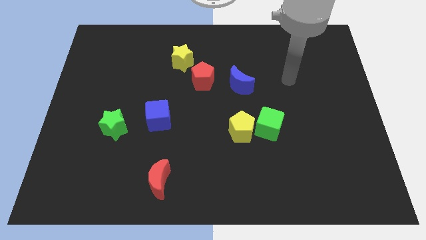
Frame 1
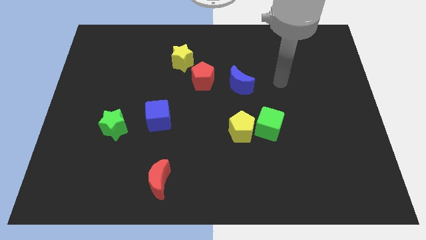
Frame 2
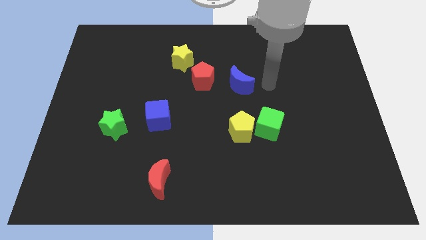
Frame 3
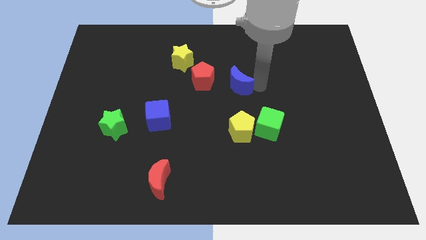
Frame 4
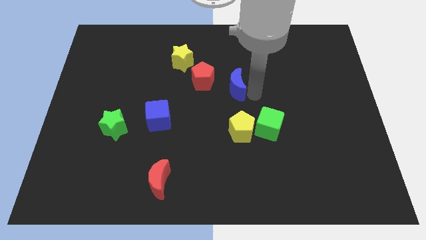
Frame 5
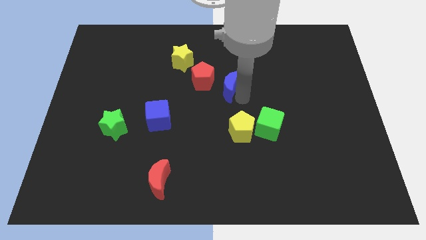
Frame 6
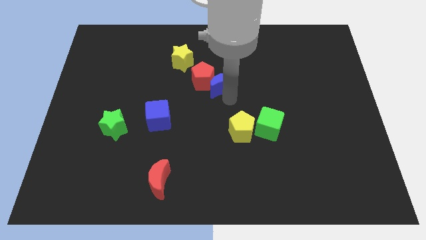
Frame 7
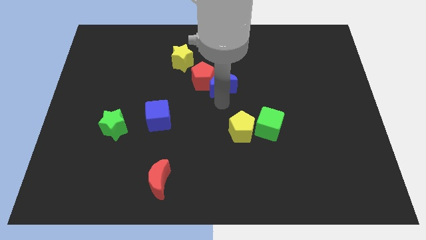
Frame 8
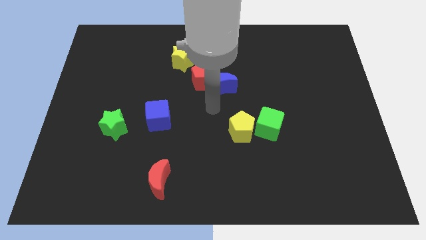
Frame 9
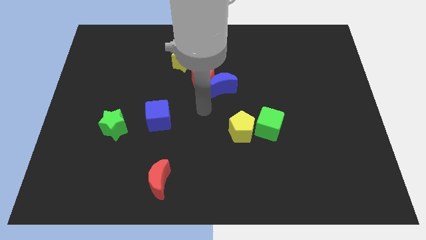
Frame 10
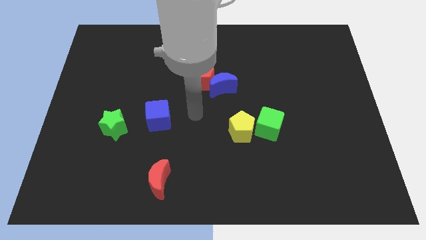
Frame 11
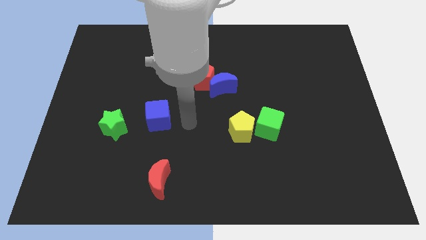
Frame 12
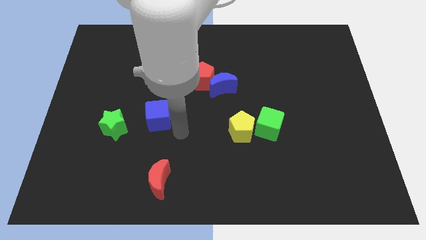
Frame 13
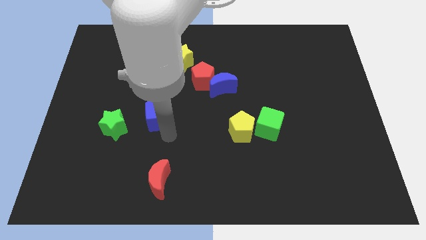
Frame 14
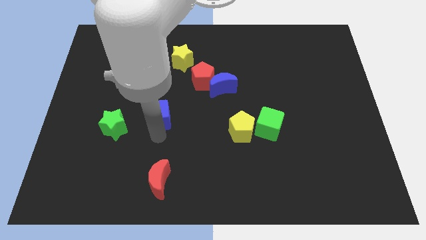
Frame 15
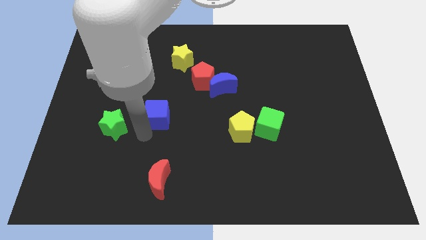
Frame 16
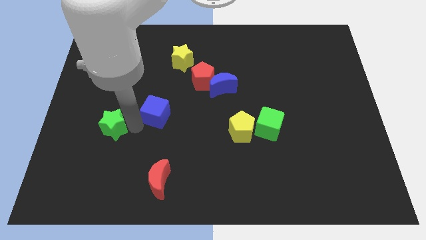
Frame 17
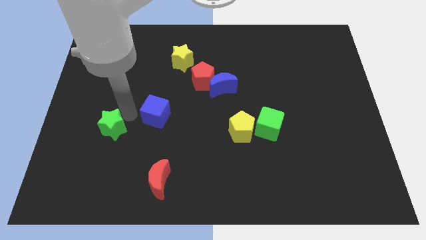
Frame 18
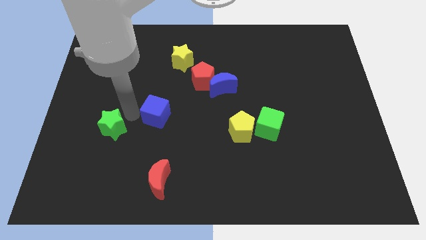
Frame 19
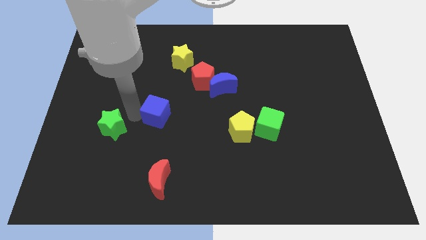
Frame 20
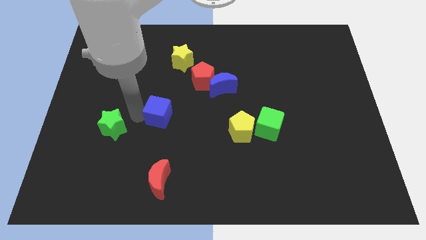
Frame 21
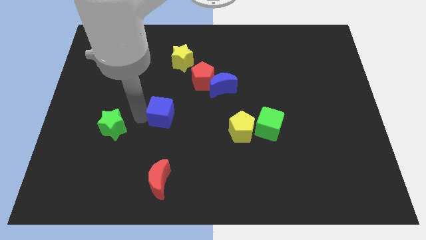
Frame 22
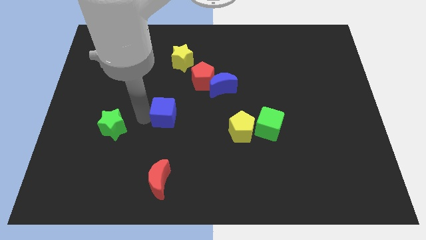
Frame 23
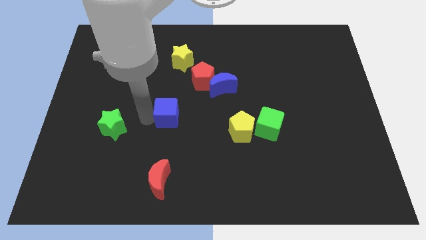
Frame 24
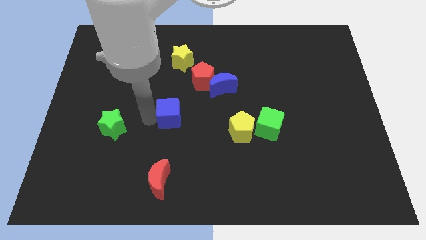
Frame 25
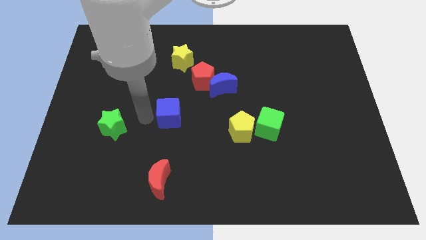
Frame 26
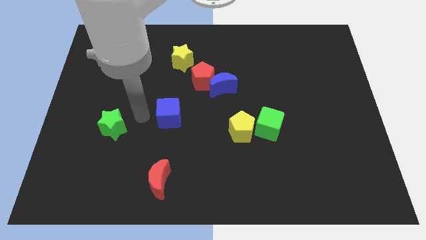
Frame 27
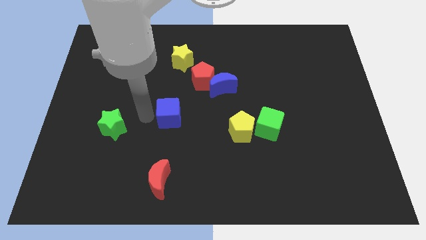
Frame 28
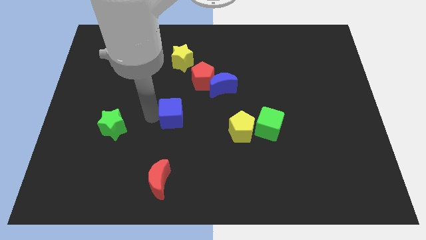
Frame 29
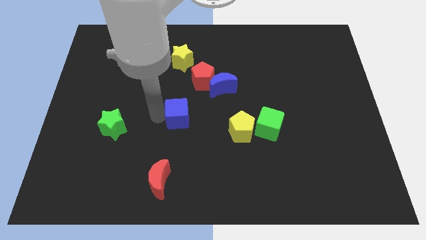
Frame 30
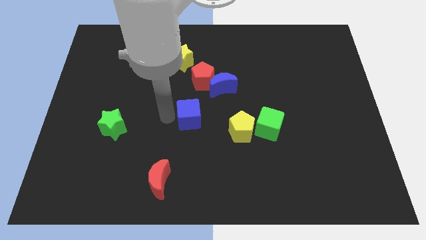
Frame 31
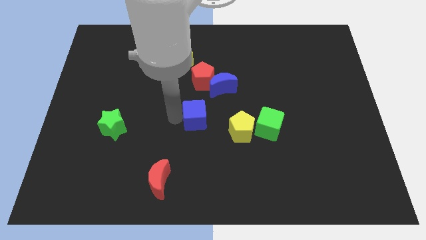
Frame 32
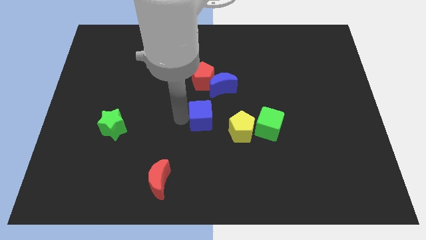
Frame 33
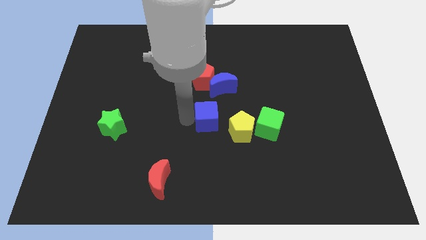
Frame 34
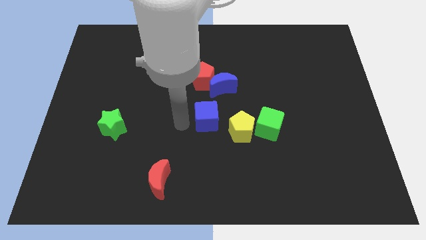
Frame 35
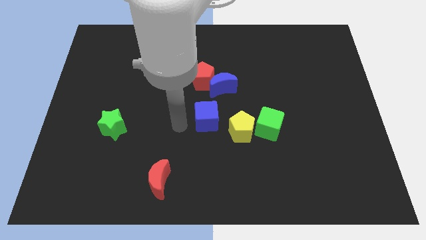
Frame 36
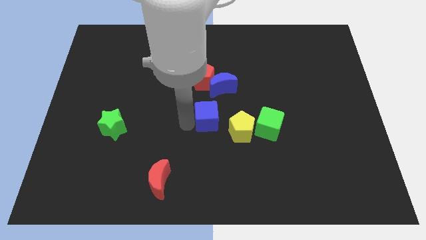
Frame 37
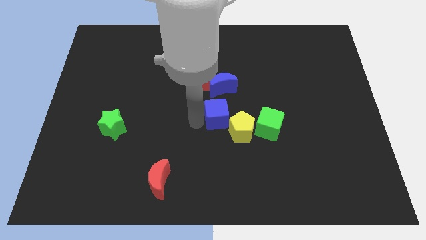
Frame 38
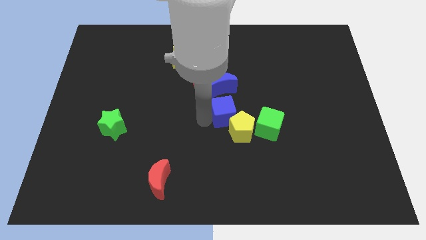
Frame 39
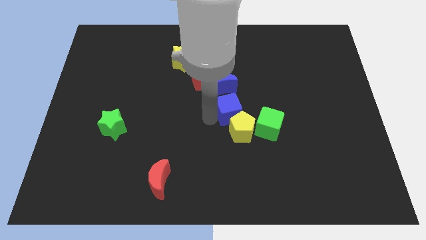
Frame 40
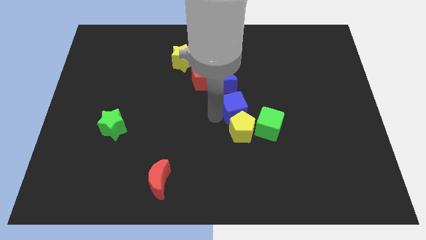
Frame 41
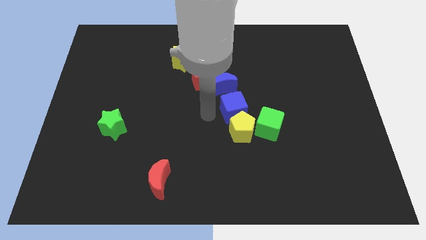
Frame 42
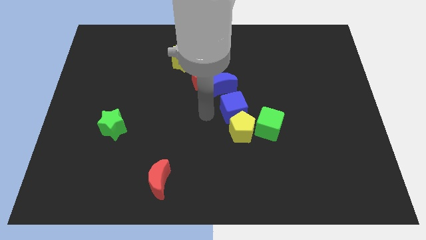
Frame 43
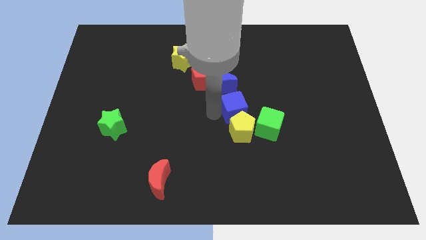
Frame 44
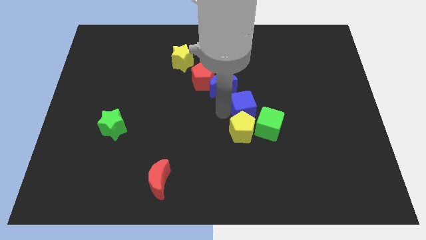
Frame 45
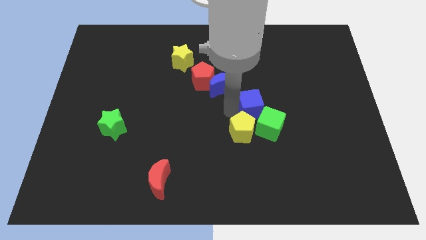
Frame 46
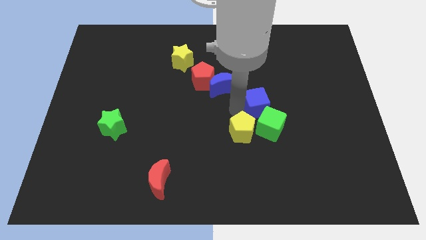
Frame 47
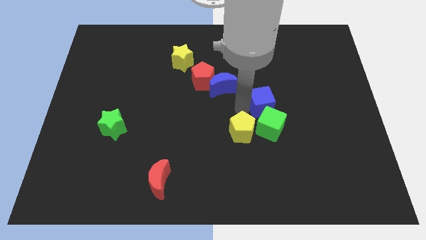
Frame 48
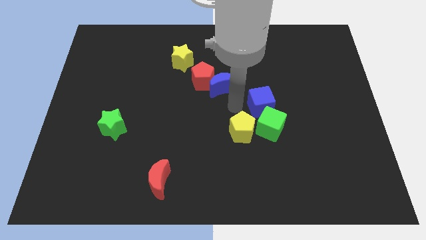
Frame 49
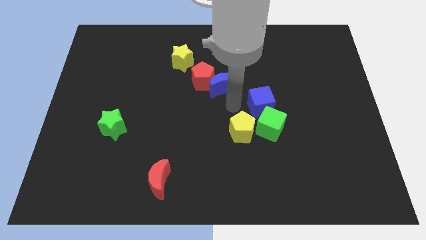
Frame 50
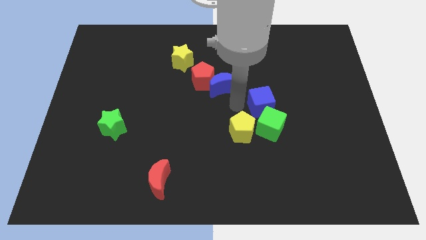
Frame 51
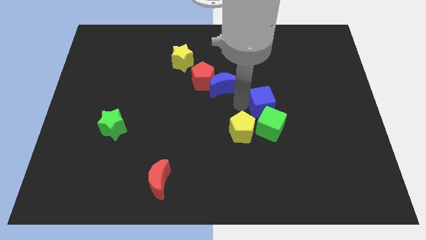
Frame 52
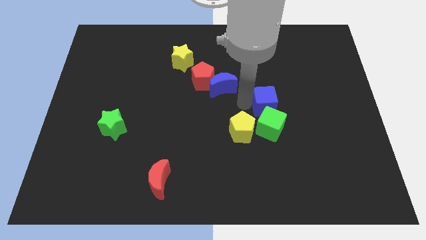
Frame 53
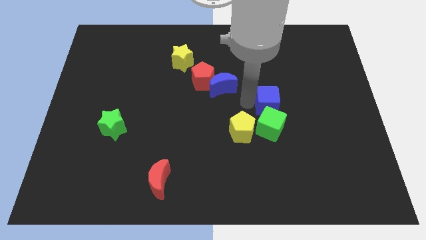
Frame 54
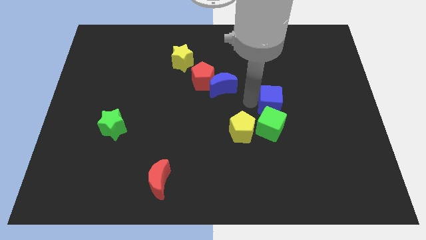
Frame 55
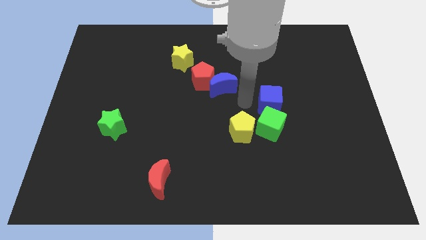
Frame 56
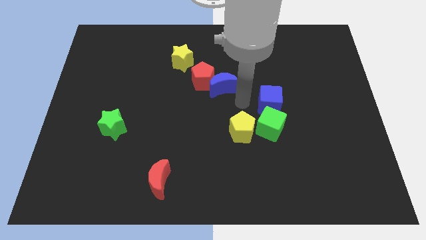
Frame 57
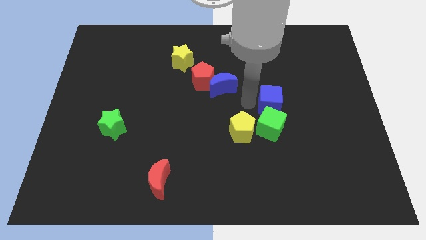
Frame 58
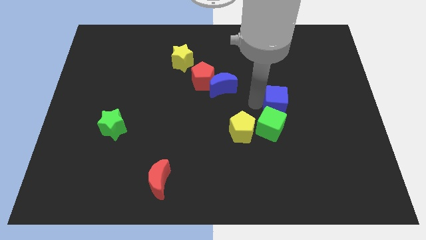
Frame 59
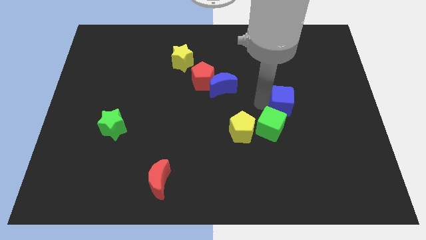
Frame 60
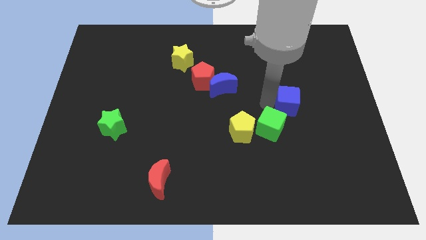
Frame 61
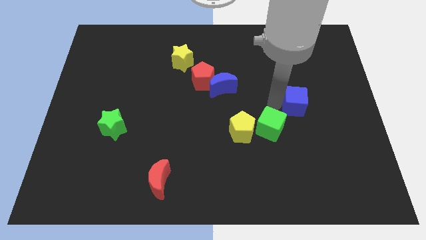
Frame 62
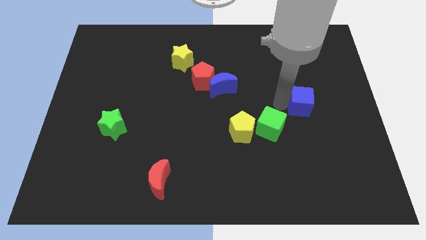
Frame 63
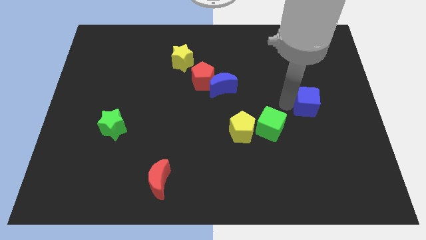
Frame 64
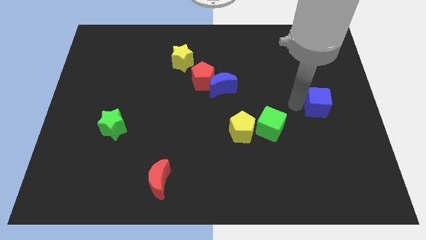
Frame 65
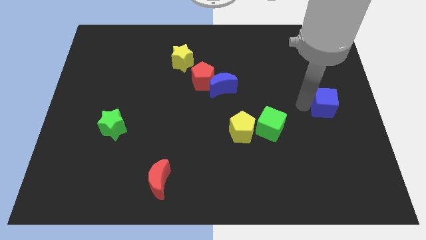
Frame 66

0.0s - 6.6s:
slide the blue cube to the center right
